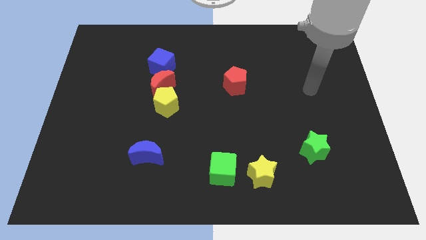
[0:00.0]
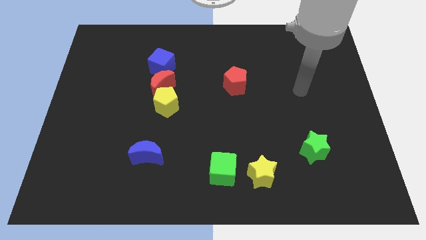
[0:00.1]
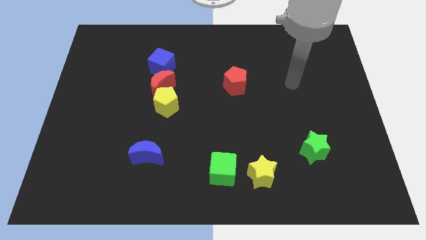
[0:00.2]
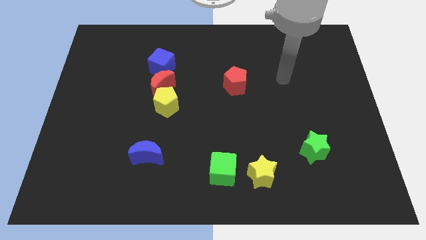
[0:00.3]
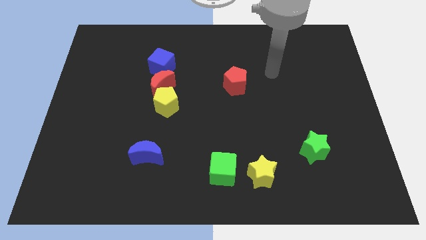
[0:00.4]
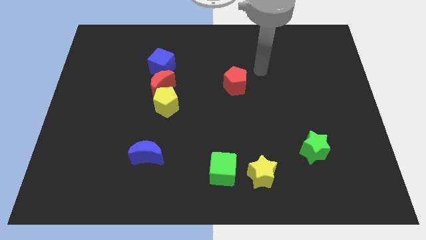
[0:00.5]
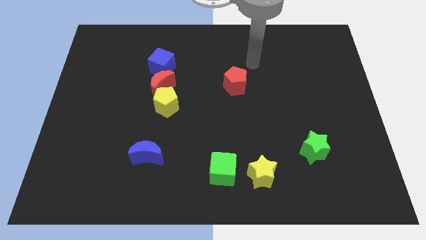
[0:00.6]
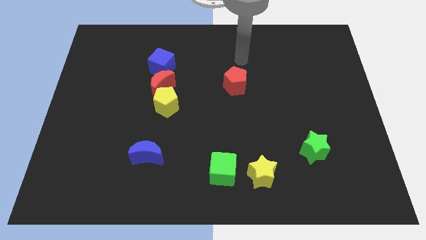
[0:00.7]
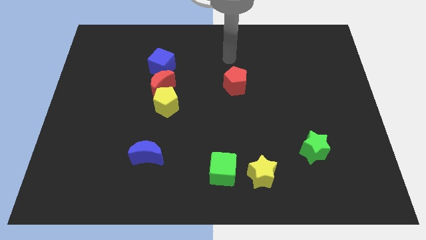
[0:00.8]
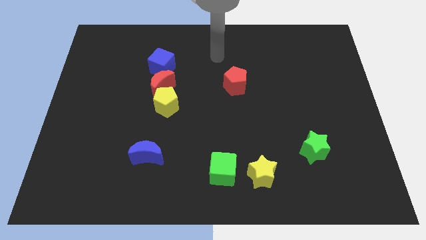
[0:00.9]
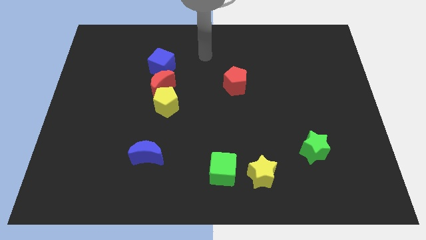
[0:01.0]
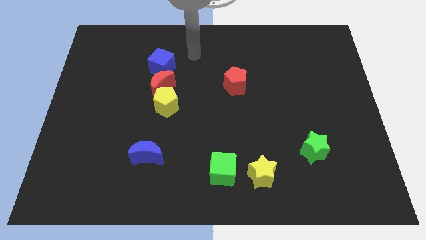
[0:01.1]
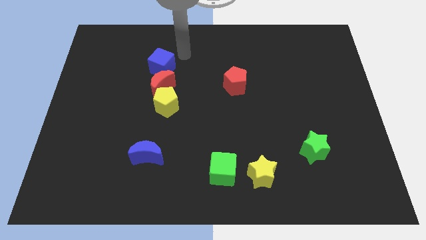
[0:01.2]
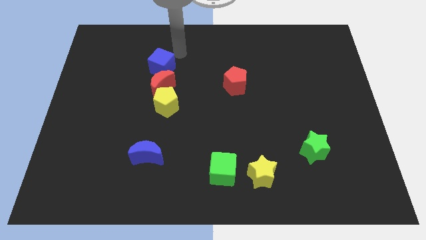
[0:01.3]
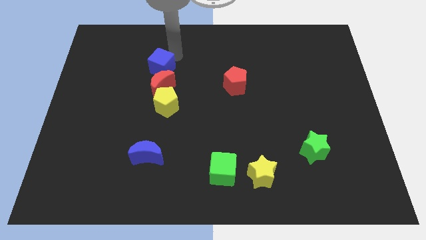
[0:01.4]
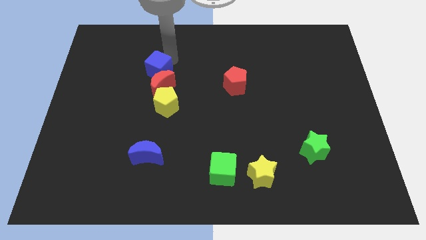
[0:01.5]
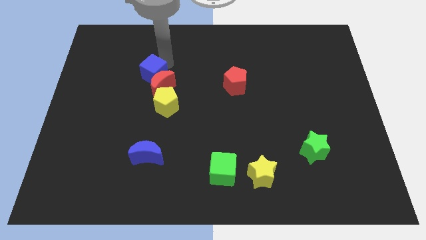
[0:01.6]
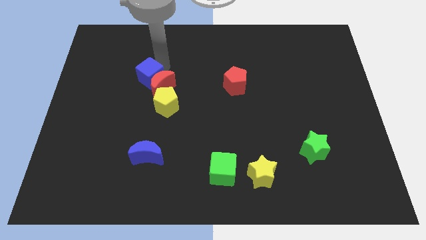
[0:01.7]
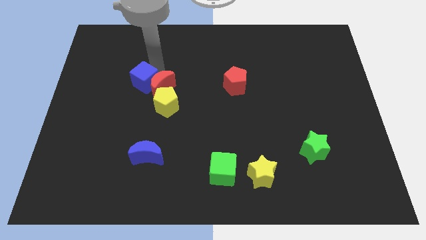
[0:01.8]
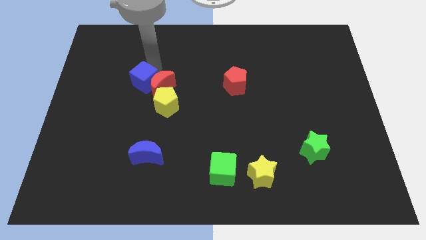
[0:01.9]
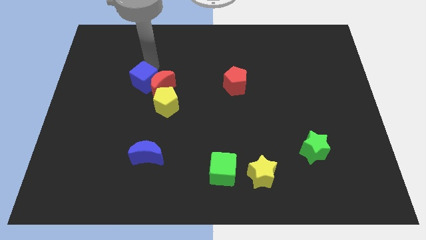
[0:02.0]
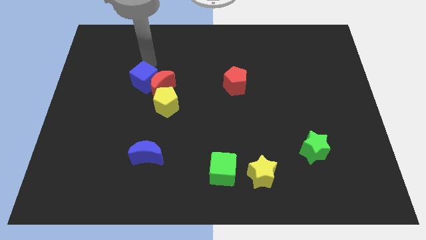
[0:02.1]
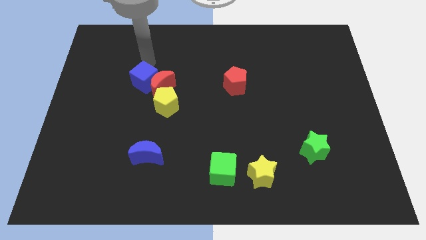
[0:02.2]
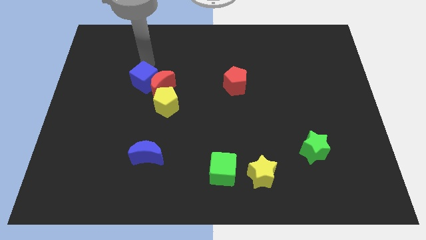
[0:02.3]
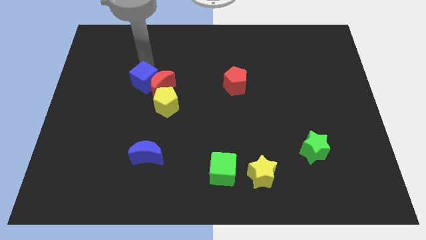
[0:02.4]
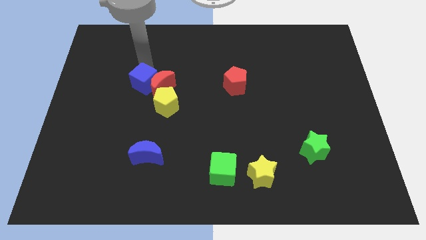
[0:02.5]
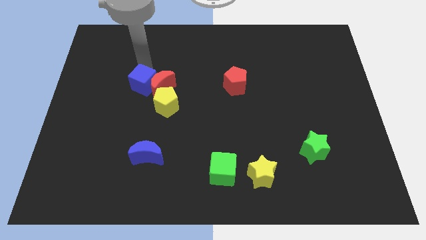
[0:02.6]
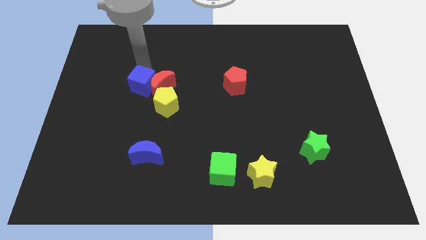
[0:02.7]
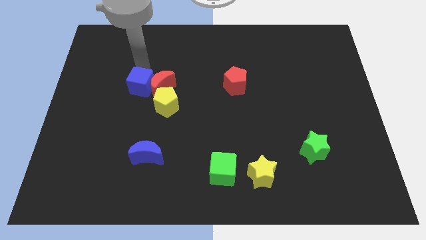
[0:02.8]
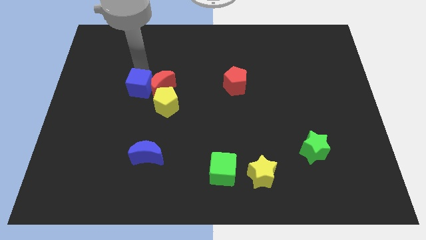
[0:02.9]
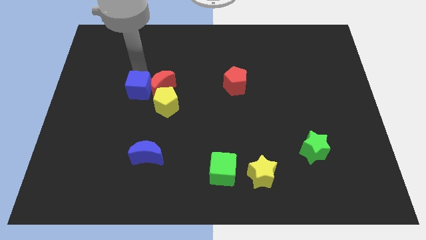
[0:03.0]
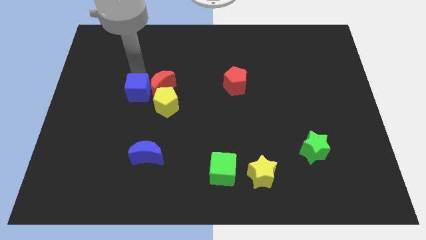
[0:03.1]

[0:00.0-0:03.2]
move the blue cube somewhat downwards

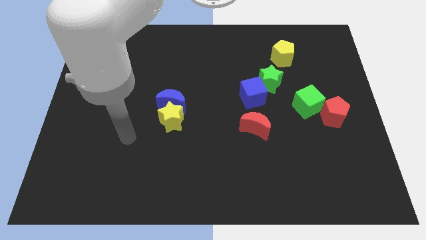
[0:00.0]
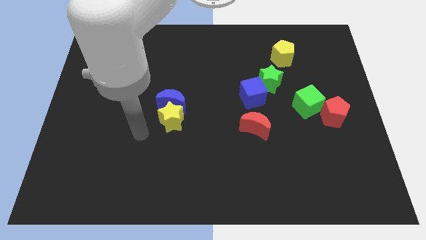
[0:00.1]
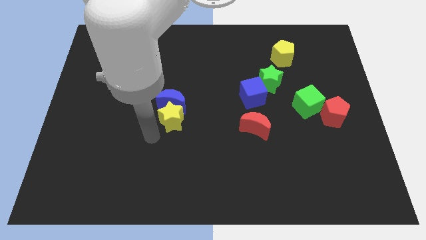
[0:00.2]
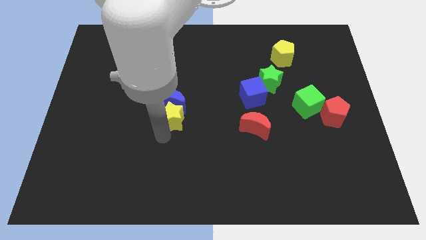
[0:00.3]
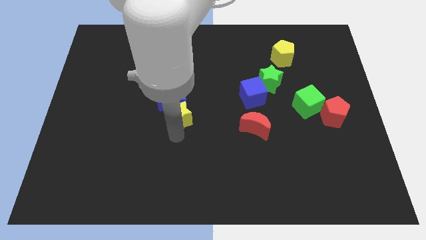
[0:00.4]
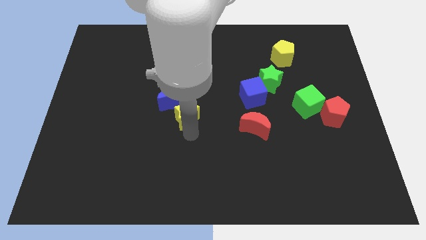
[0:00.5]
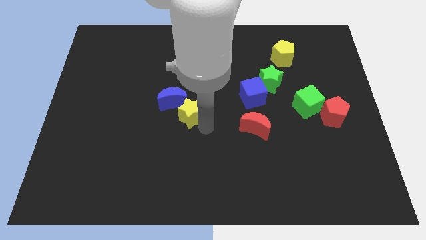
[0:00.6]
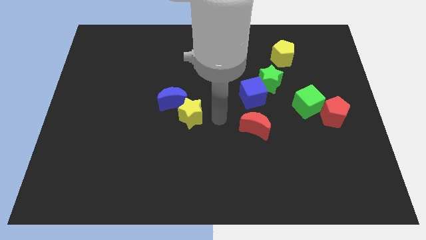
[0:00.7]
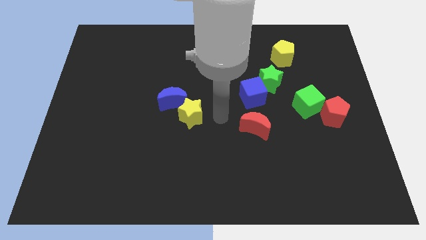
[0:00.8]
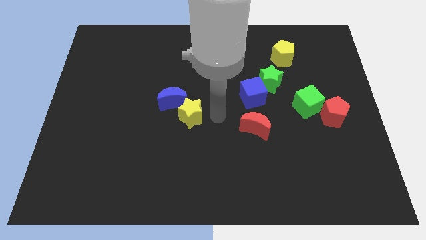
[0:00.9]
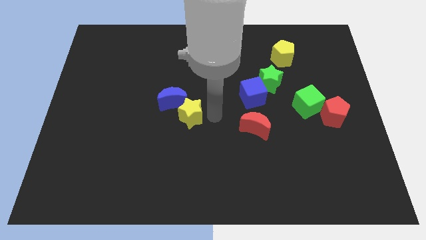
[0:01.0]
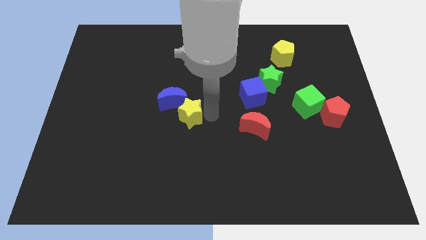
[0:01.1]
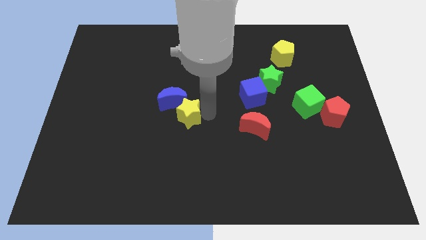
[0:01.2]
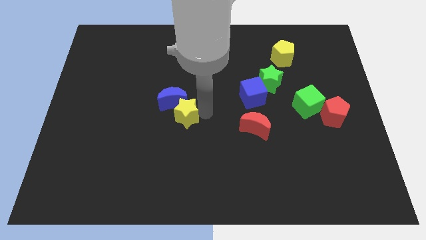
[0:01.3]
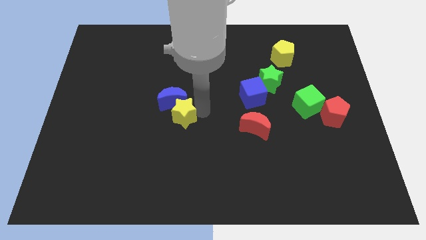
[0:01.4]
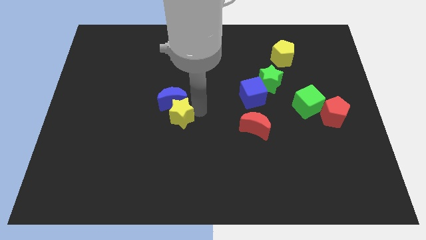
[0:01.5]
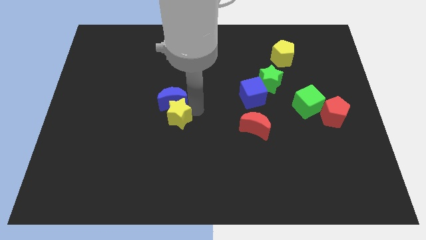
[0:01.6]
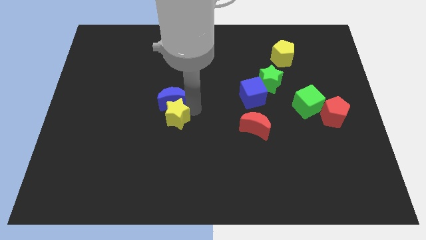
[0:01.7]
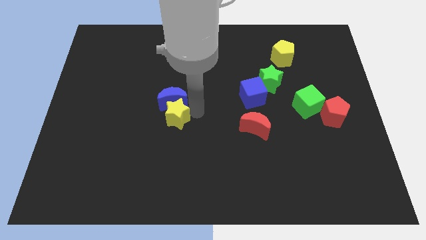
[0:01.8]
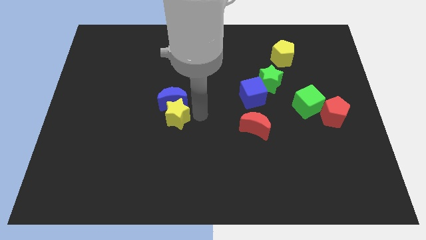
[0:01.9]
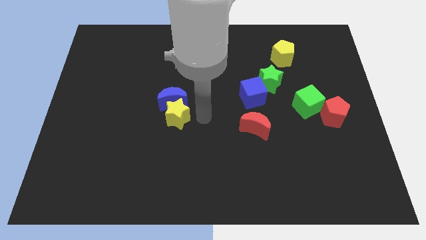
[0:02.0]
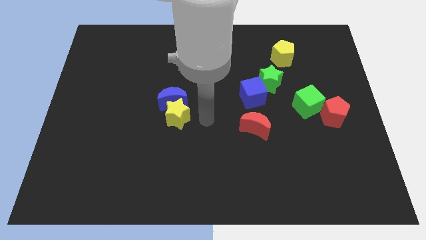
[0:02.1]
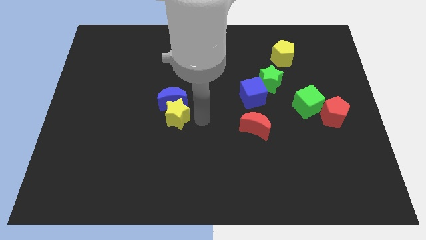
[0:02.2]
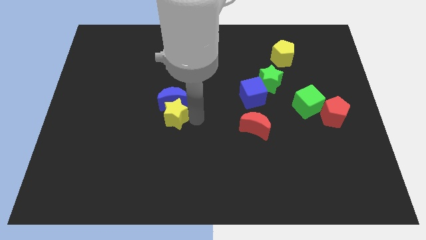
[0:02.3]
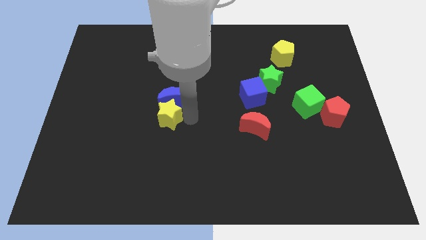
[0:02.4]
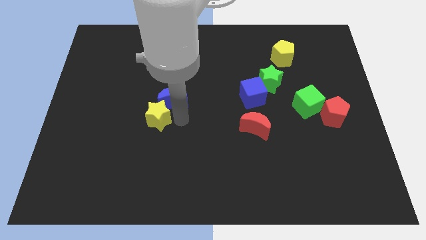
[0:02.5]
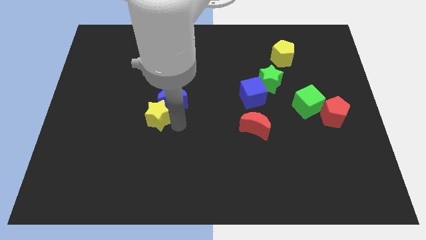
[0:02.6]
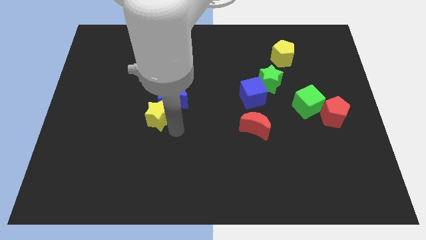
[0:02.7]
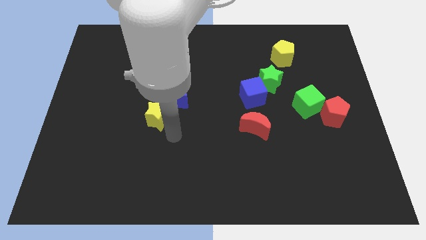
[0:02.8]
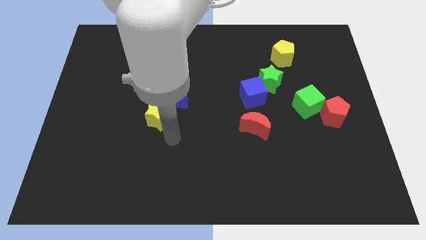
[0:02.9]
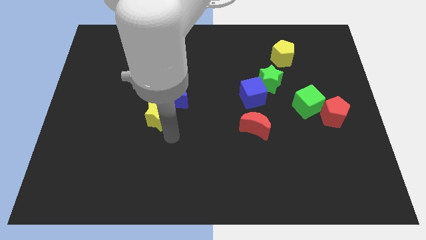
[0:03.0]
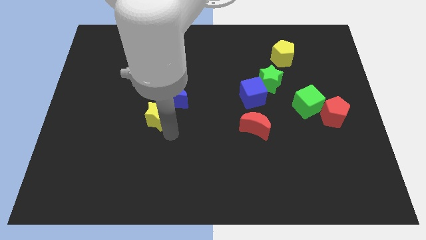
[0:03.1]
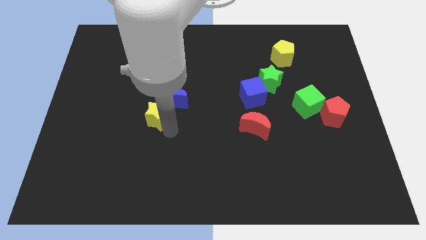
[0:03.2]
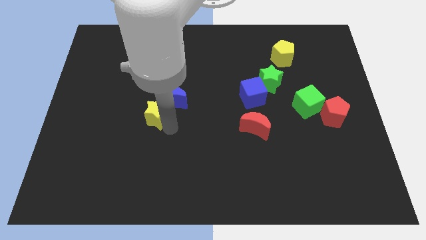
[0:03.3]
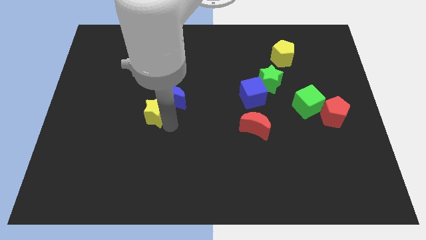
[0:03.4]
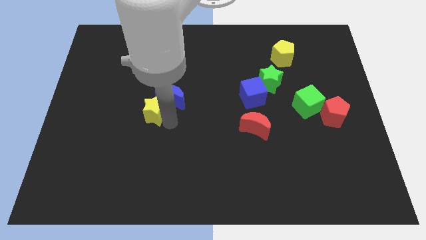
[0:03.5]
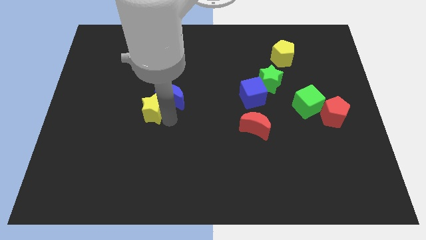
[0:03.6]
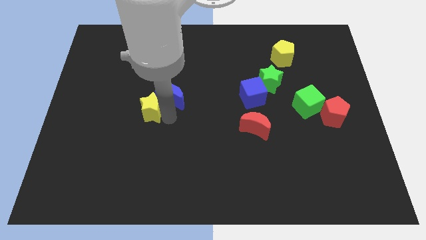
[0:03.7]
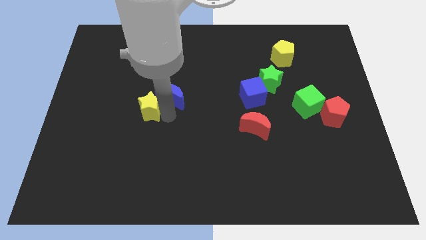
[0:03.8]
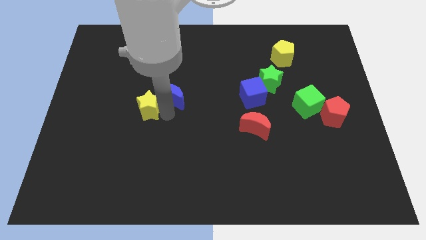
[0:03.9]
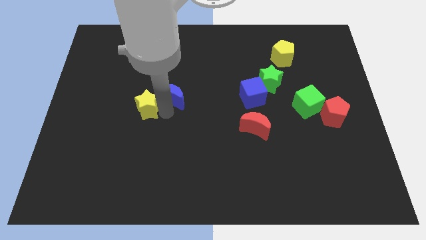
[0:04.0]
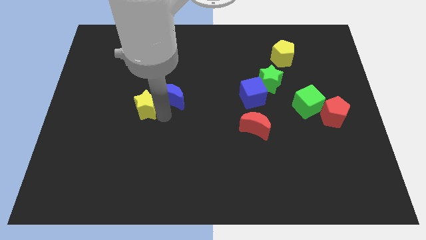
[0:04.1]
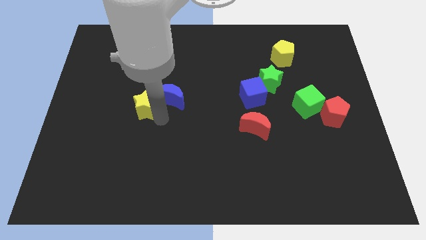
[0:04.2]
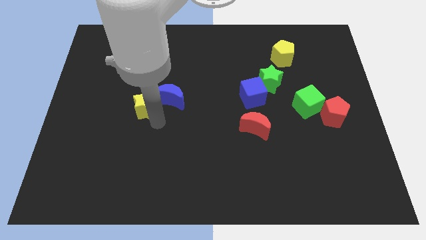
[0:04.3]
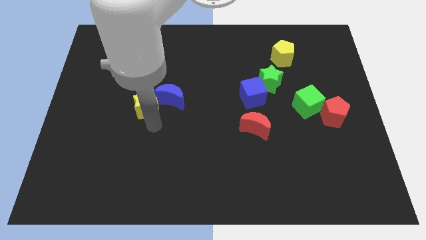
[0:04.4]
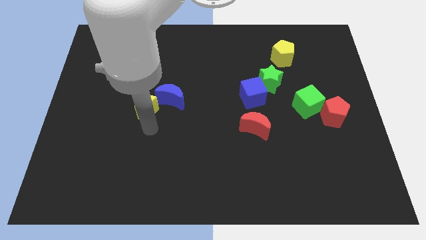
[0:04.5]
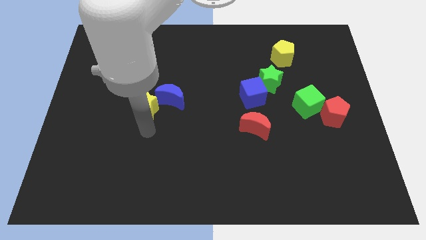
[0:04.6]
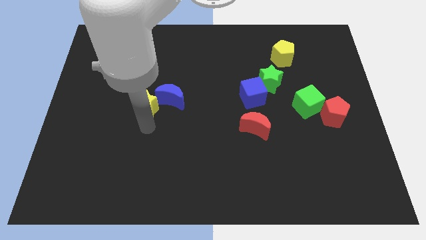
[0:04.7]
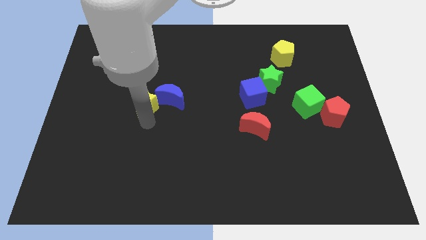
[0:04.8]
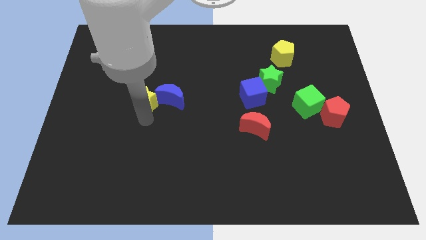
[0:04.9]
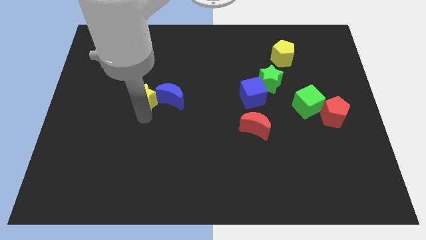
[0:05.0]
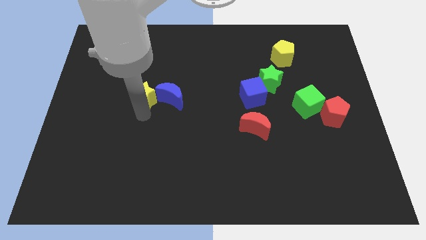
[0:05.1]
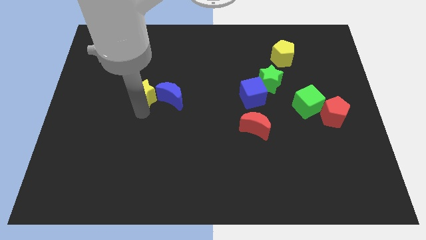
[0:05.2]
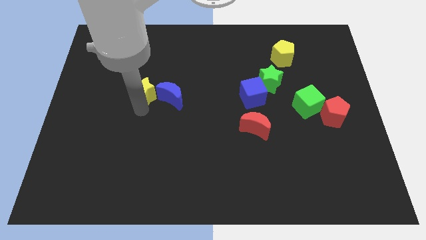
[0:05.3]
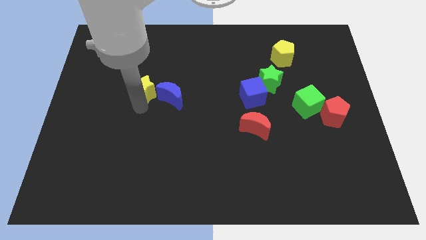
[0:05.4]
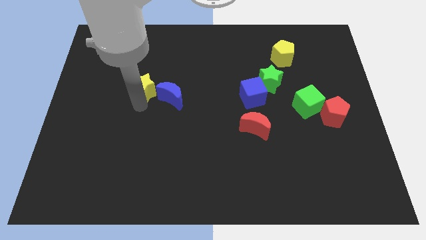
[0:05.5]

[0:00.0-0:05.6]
push the yellow star somewhat up
